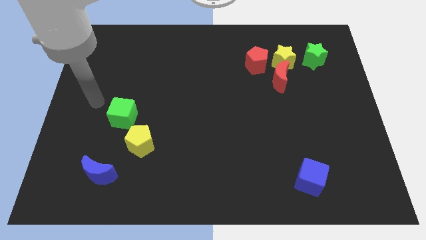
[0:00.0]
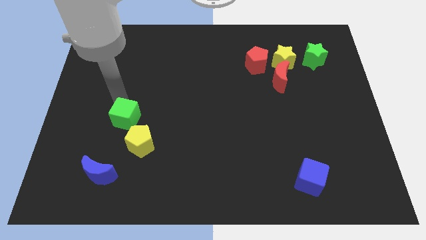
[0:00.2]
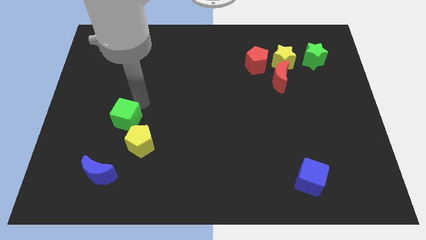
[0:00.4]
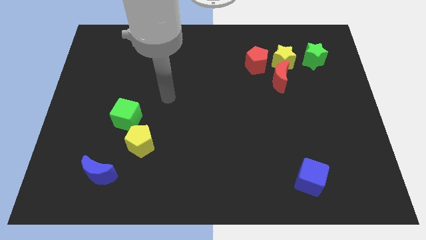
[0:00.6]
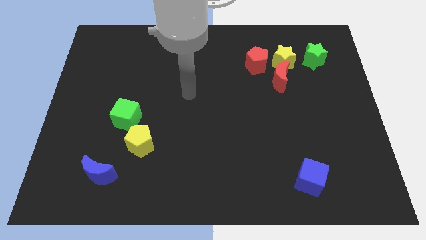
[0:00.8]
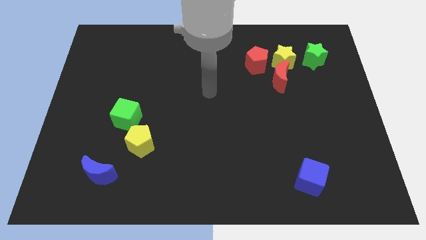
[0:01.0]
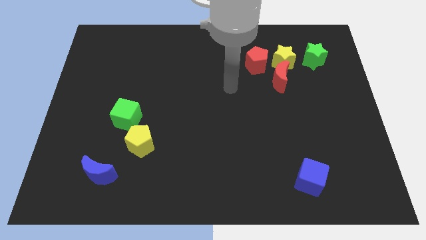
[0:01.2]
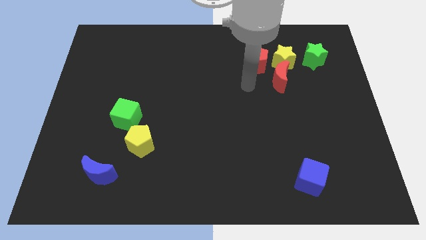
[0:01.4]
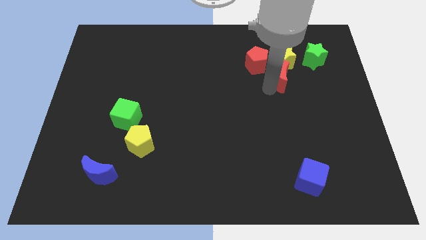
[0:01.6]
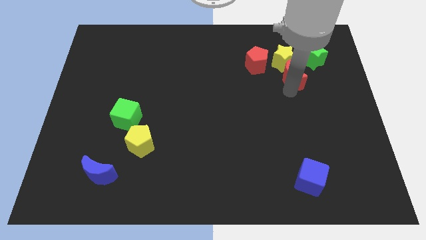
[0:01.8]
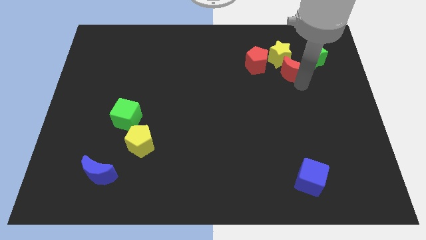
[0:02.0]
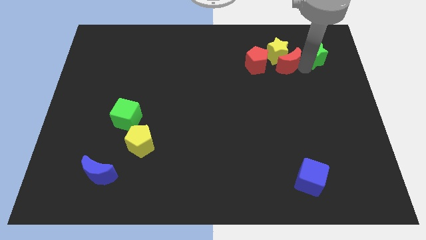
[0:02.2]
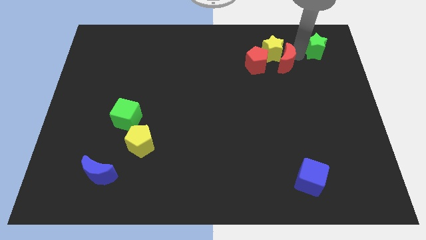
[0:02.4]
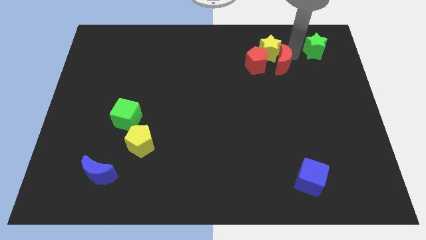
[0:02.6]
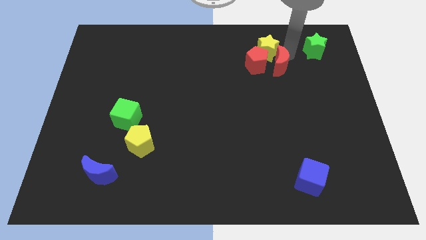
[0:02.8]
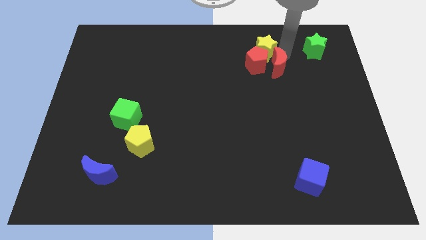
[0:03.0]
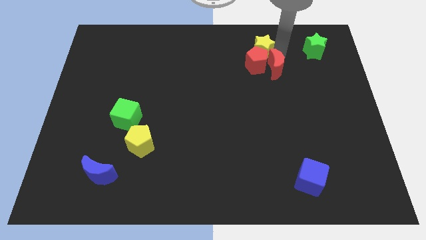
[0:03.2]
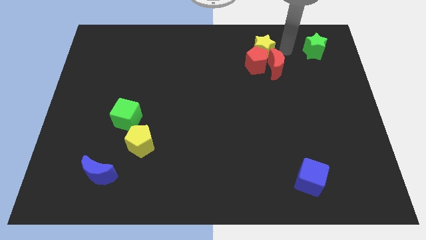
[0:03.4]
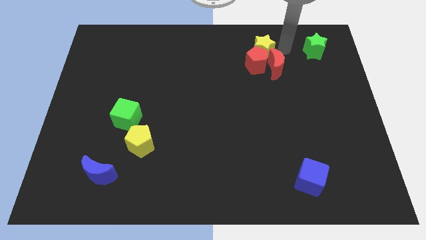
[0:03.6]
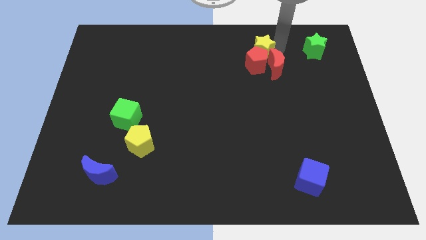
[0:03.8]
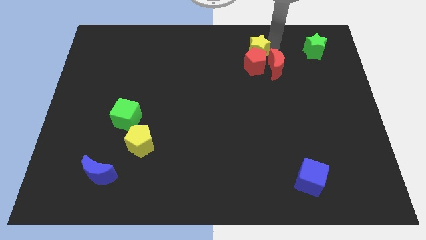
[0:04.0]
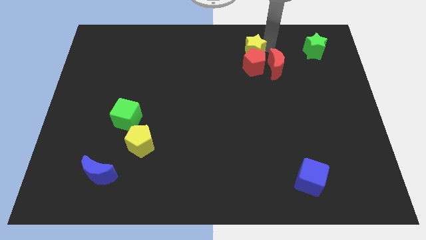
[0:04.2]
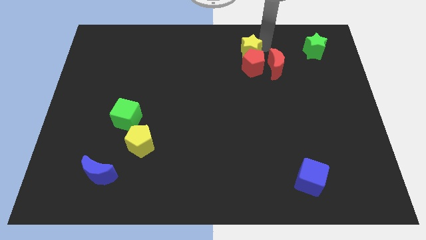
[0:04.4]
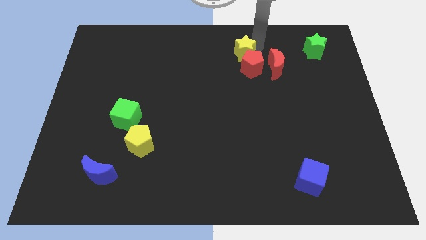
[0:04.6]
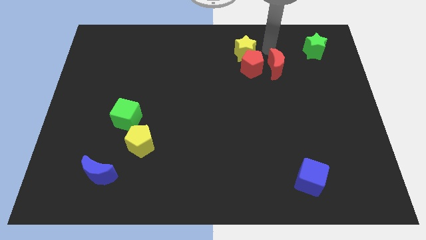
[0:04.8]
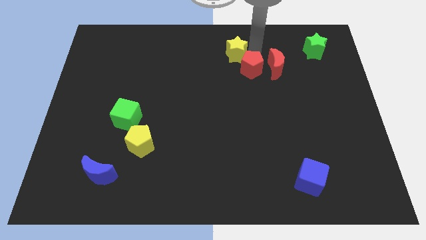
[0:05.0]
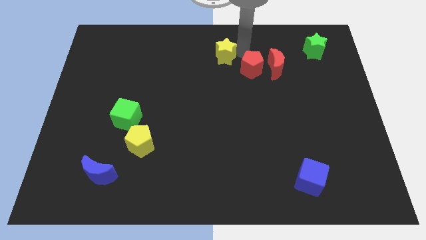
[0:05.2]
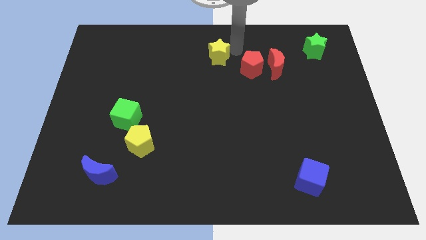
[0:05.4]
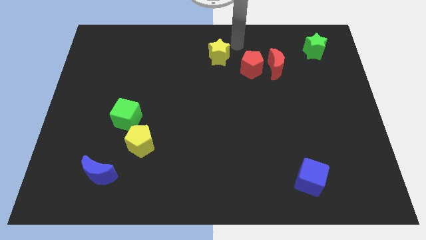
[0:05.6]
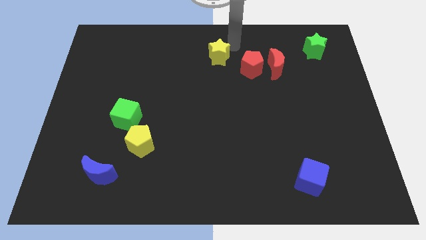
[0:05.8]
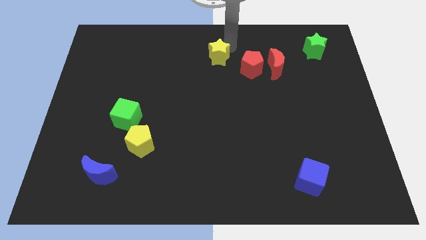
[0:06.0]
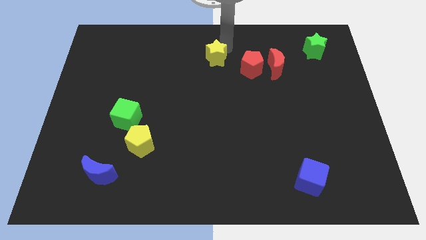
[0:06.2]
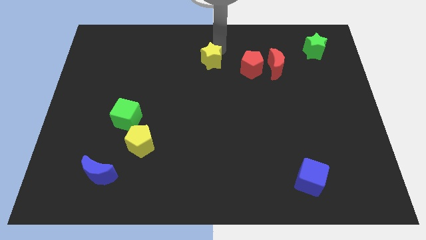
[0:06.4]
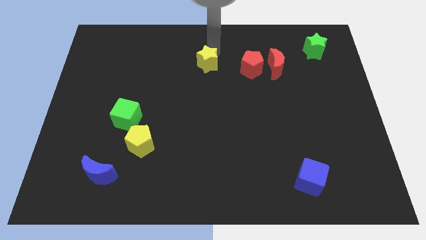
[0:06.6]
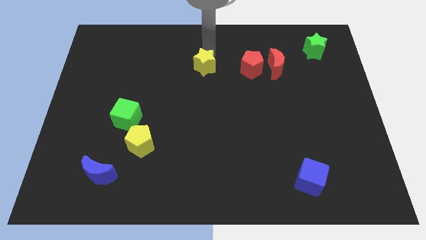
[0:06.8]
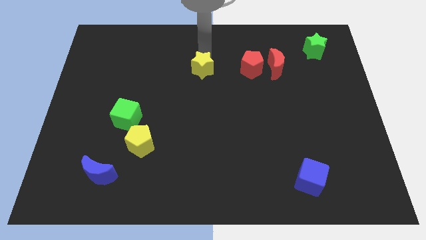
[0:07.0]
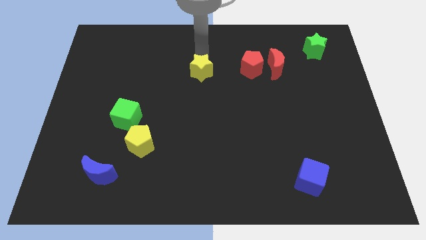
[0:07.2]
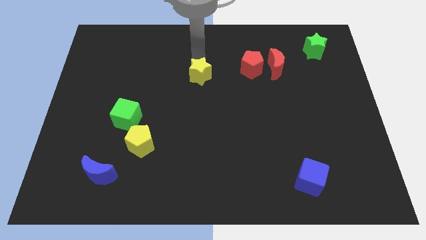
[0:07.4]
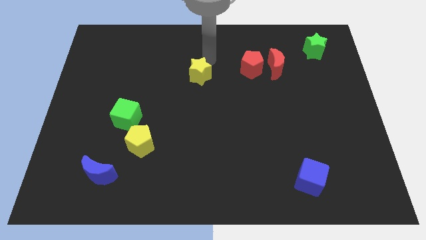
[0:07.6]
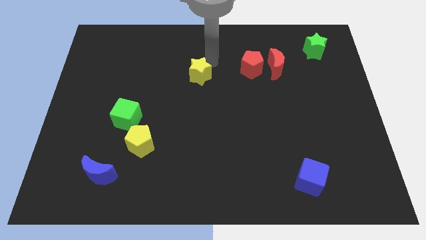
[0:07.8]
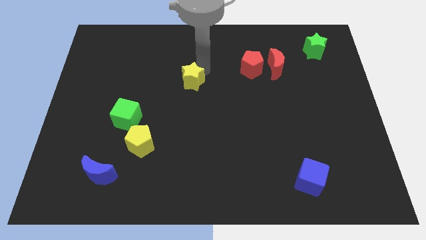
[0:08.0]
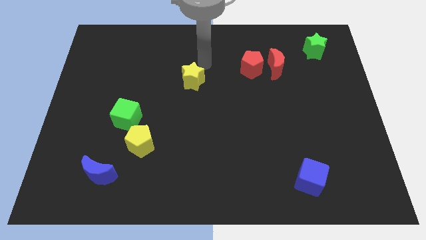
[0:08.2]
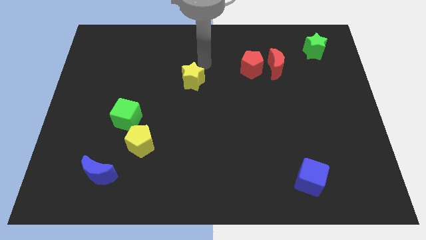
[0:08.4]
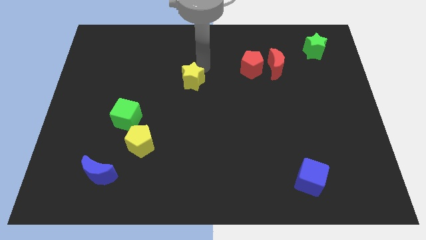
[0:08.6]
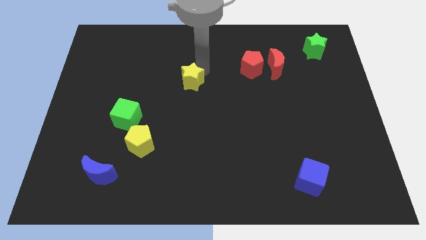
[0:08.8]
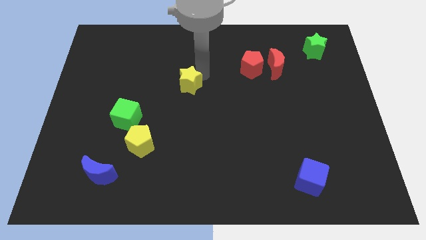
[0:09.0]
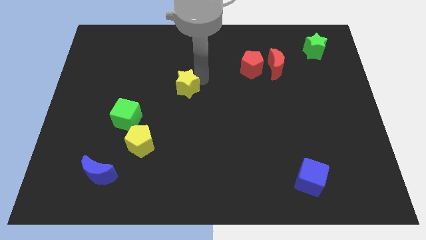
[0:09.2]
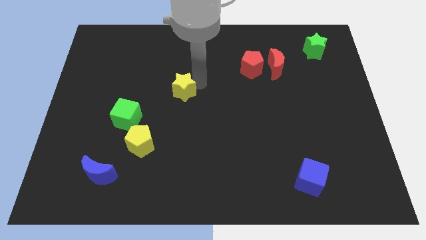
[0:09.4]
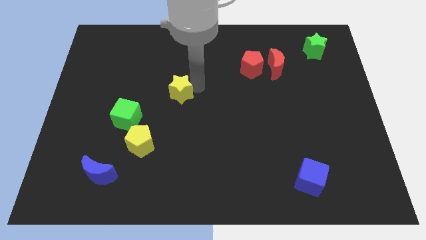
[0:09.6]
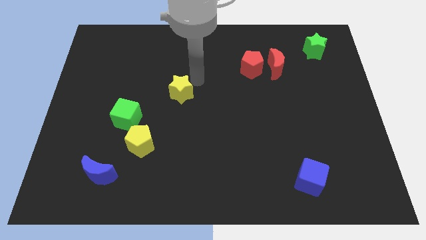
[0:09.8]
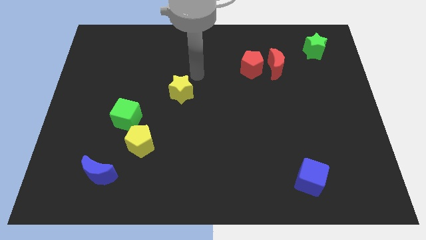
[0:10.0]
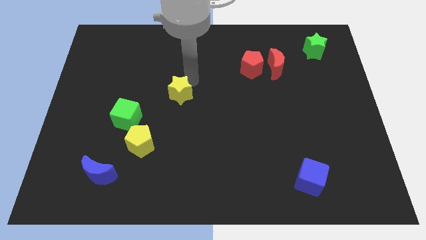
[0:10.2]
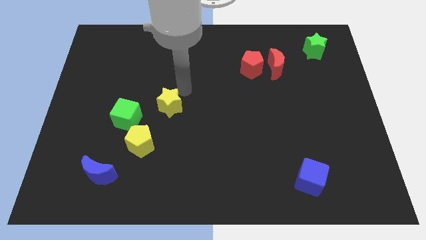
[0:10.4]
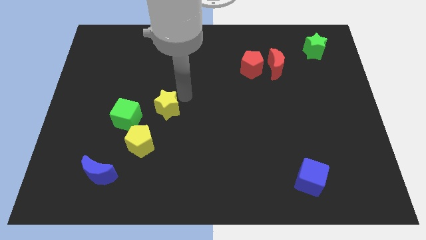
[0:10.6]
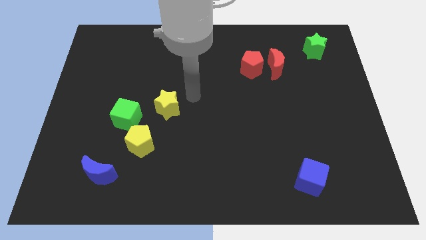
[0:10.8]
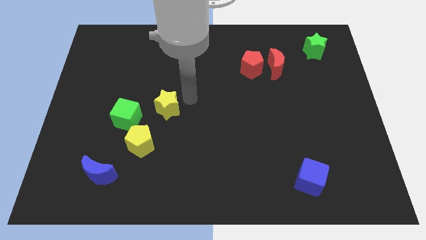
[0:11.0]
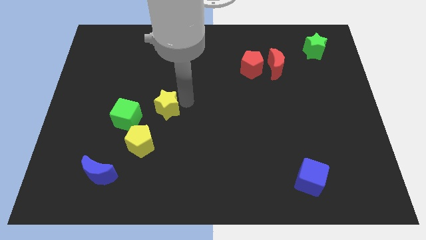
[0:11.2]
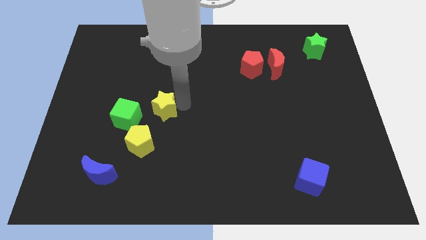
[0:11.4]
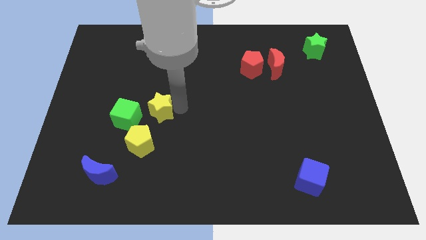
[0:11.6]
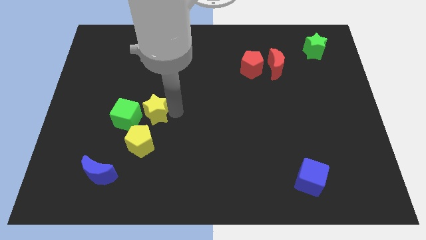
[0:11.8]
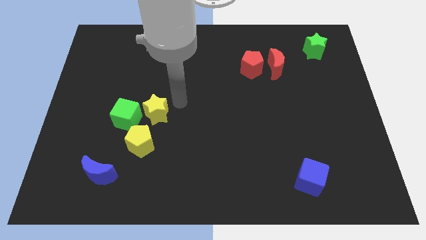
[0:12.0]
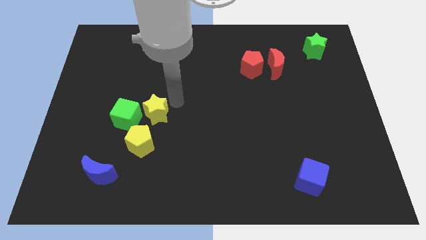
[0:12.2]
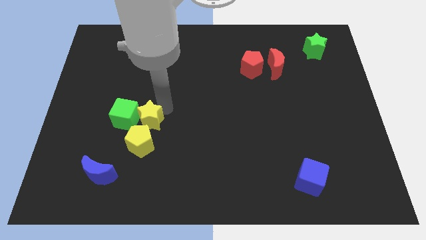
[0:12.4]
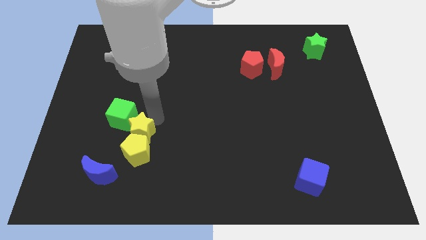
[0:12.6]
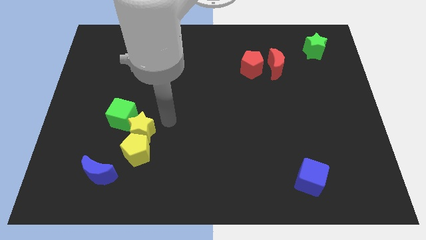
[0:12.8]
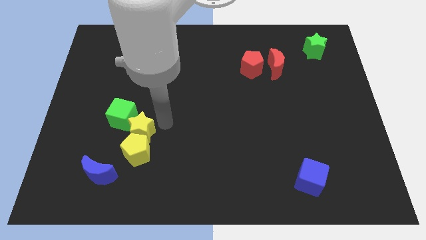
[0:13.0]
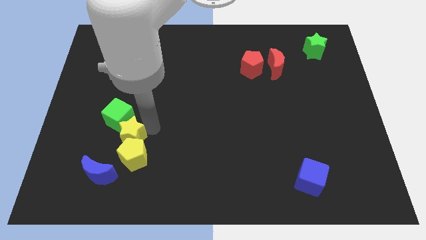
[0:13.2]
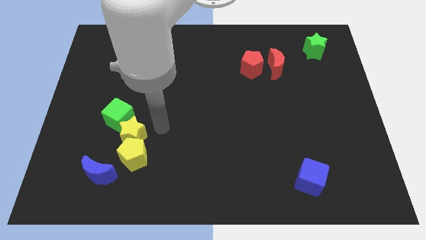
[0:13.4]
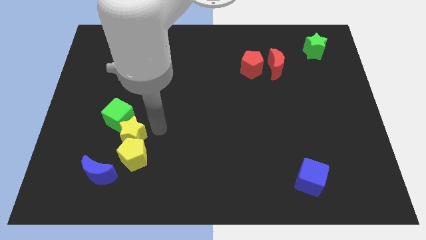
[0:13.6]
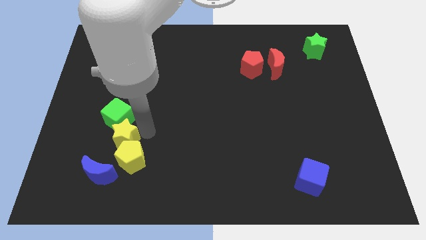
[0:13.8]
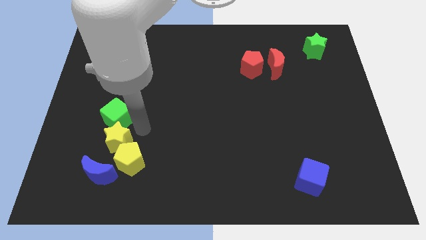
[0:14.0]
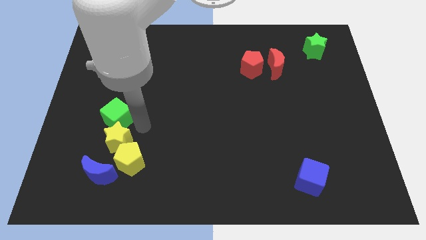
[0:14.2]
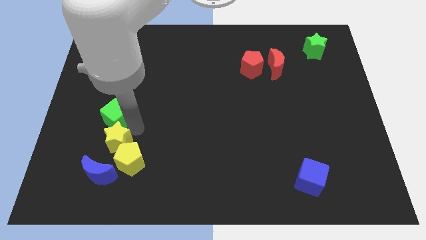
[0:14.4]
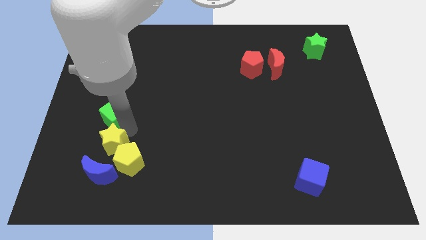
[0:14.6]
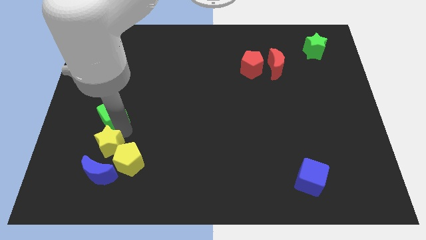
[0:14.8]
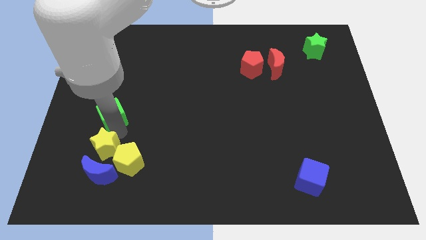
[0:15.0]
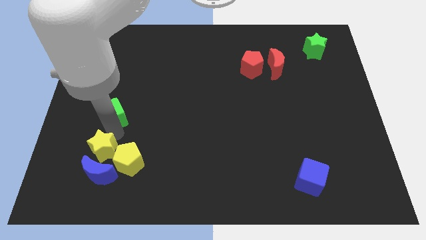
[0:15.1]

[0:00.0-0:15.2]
put the yellow star to the top left of the blue moon
